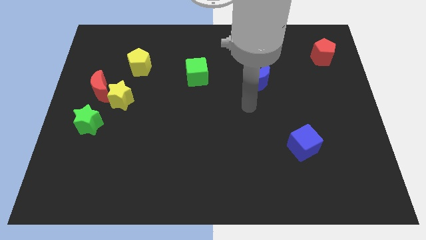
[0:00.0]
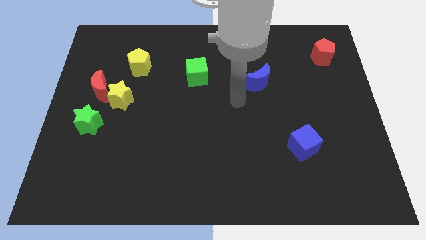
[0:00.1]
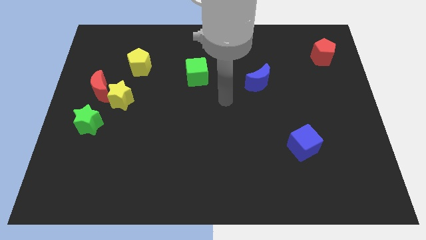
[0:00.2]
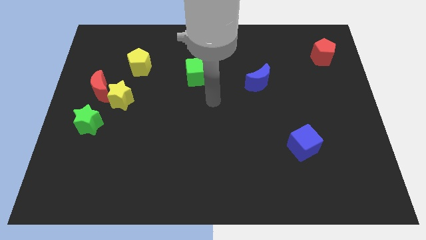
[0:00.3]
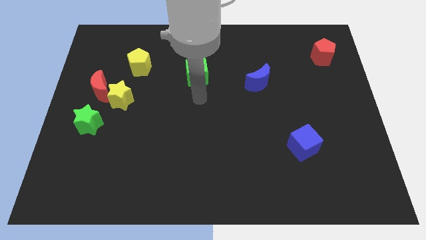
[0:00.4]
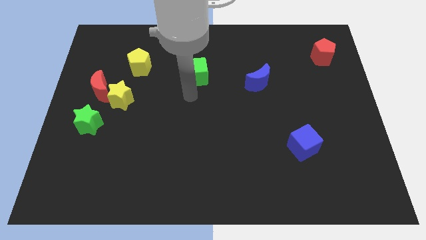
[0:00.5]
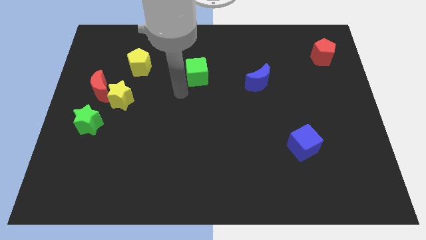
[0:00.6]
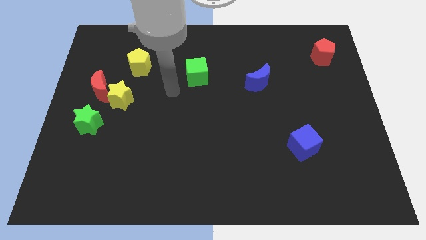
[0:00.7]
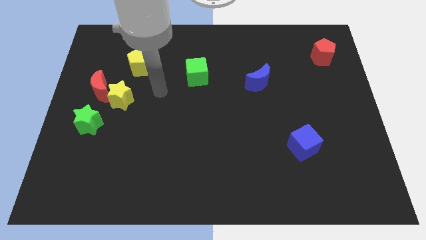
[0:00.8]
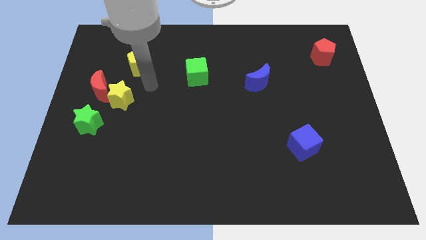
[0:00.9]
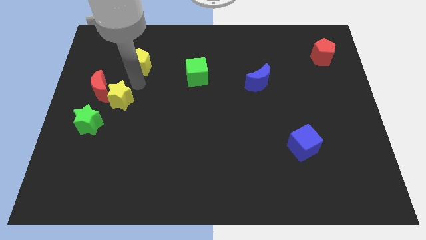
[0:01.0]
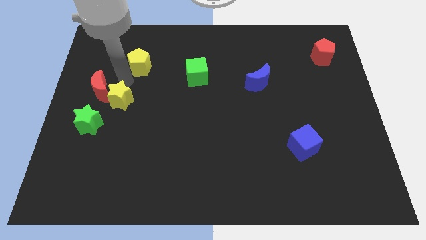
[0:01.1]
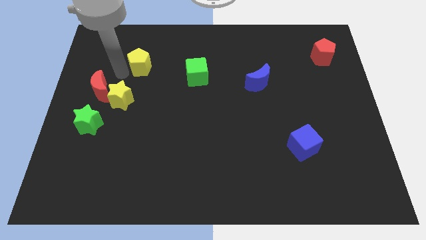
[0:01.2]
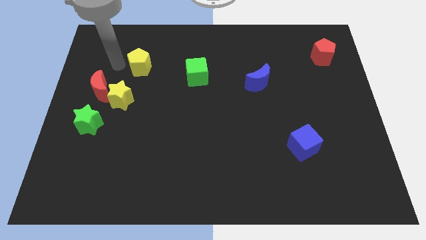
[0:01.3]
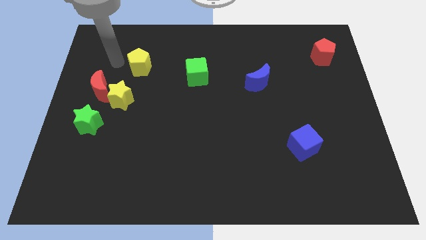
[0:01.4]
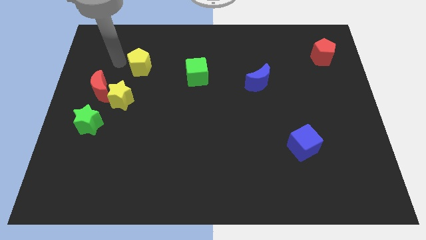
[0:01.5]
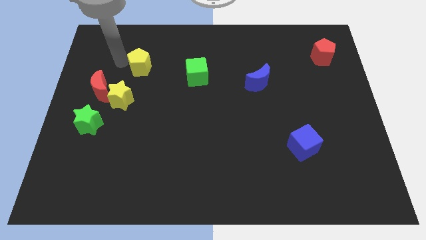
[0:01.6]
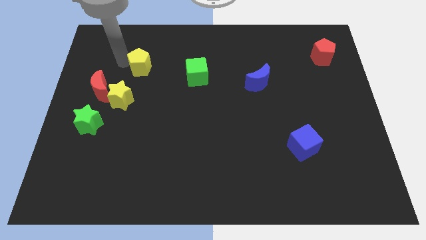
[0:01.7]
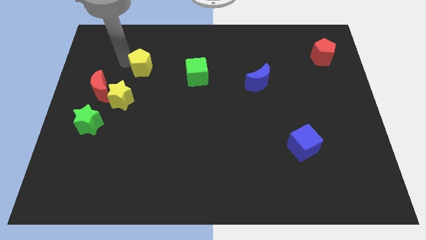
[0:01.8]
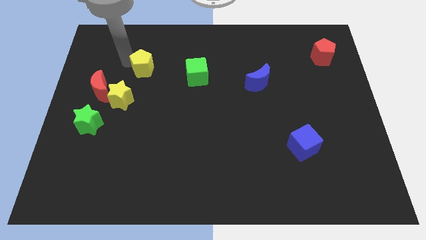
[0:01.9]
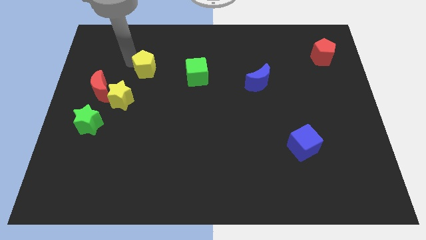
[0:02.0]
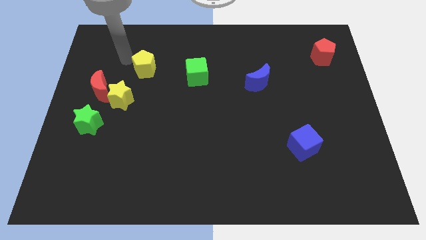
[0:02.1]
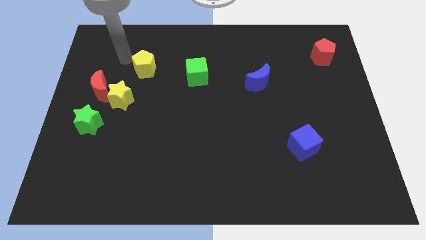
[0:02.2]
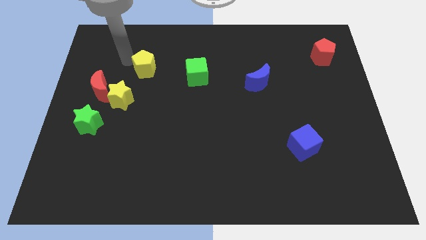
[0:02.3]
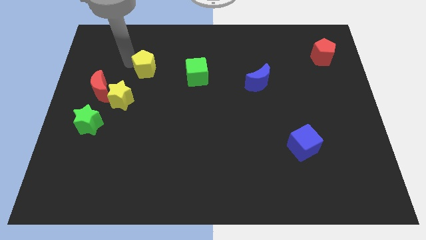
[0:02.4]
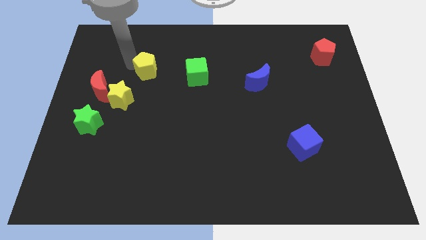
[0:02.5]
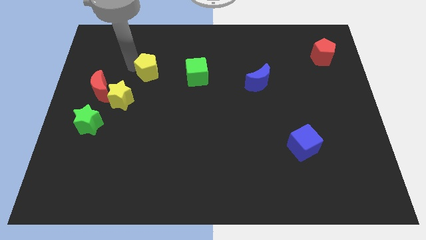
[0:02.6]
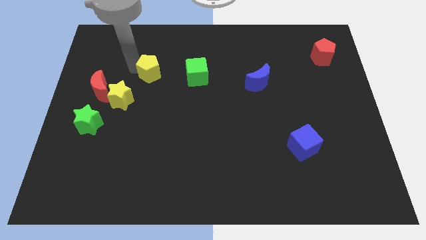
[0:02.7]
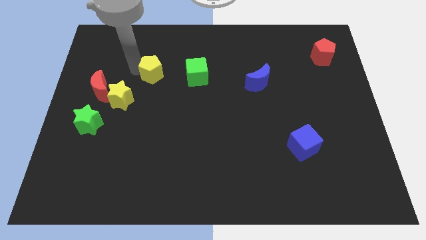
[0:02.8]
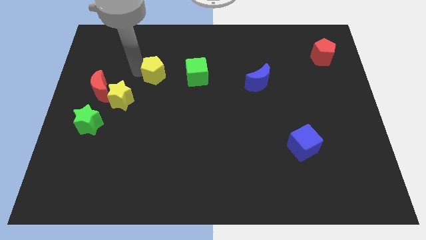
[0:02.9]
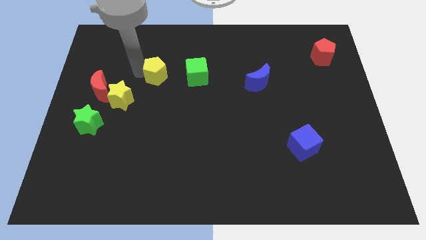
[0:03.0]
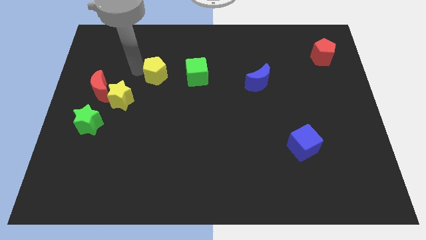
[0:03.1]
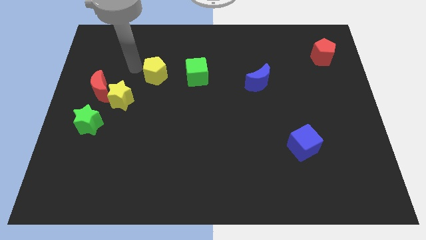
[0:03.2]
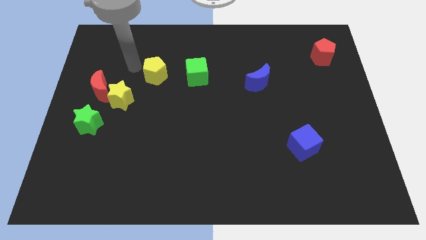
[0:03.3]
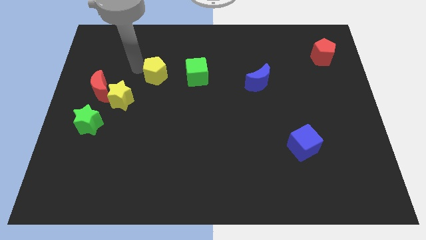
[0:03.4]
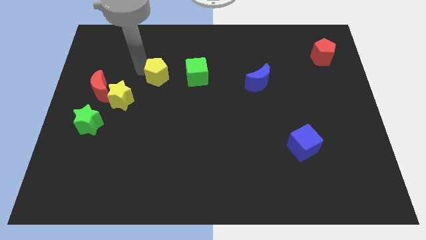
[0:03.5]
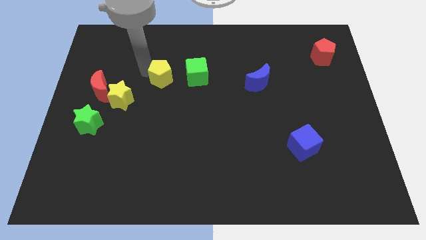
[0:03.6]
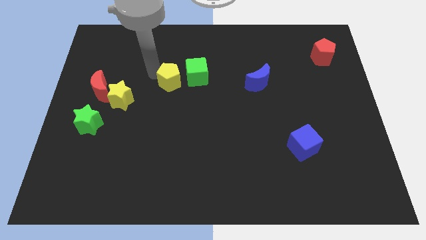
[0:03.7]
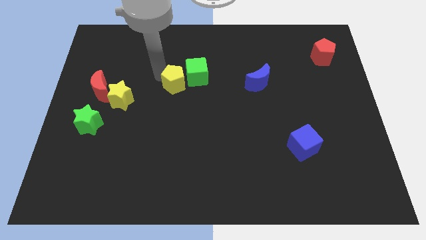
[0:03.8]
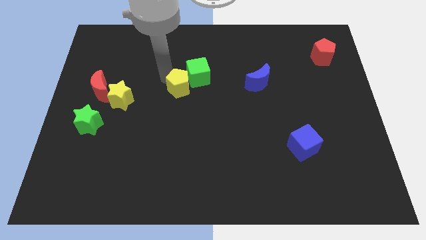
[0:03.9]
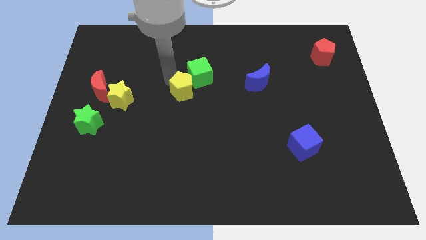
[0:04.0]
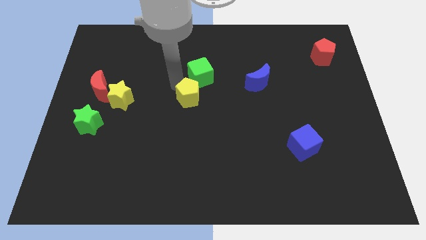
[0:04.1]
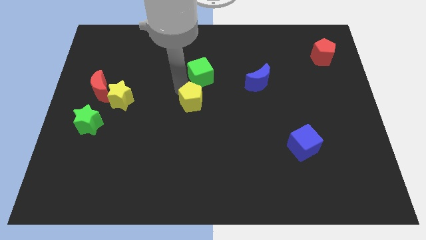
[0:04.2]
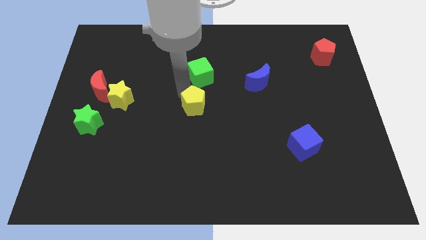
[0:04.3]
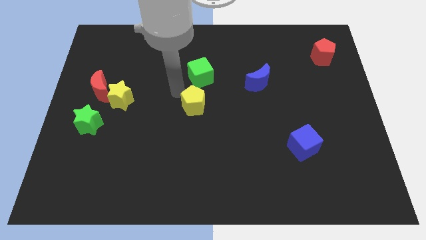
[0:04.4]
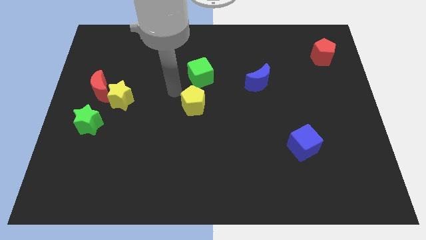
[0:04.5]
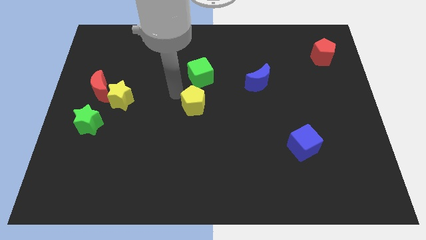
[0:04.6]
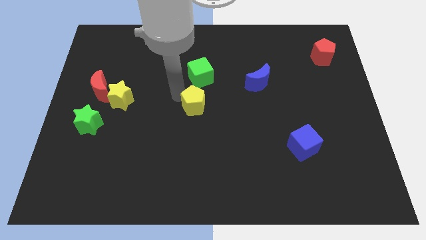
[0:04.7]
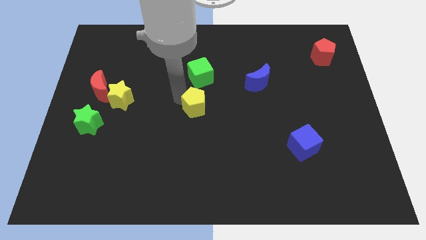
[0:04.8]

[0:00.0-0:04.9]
move the yellow pentagon downwards and to the right diagonally

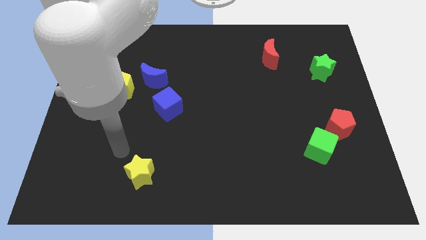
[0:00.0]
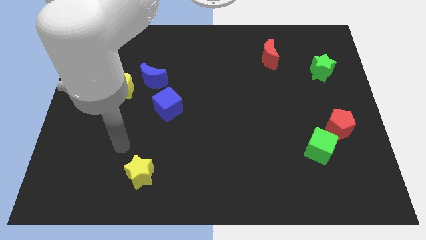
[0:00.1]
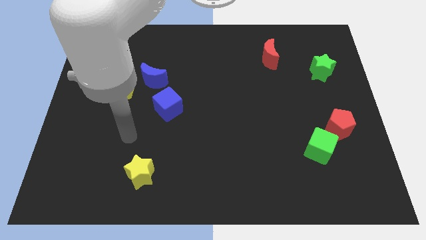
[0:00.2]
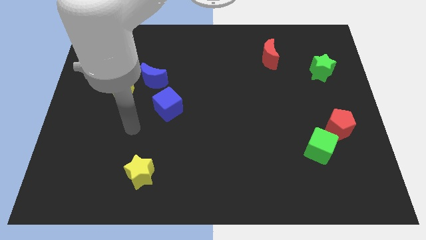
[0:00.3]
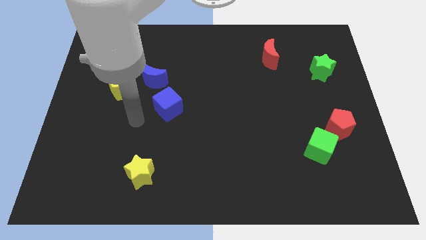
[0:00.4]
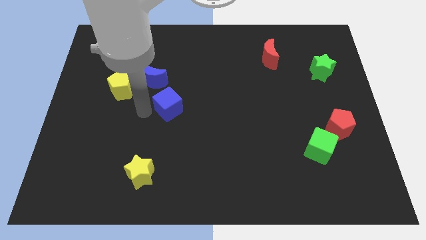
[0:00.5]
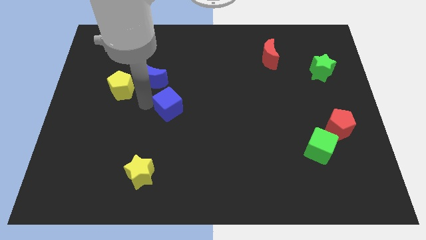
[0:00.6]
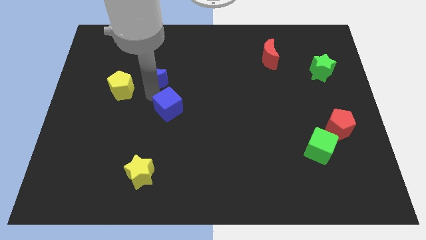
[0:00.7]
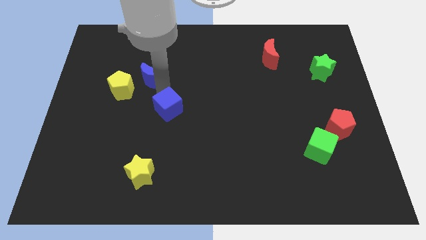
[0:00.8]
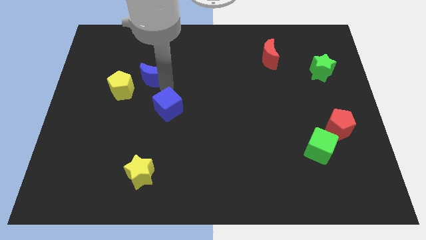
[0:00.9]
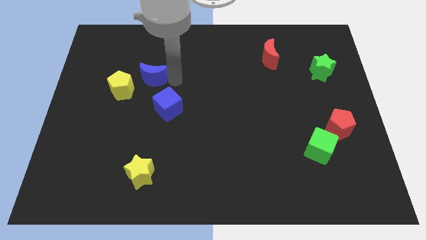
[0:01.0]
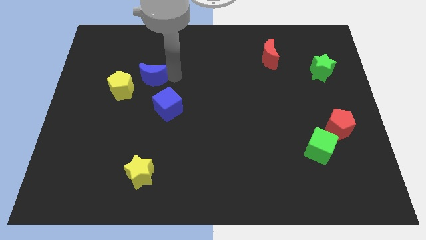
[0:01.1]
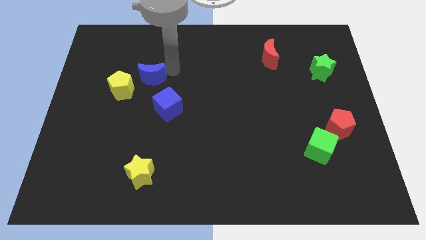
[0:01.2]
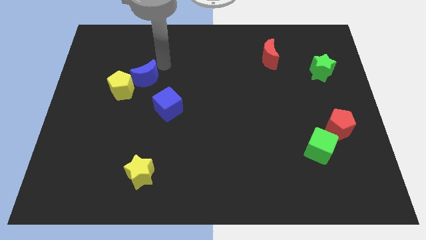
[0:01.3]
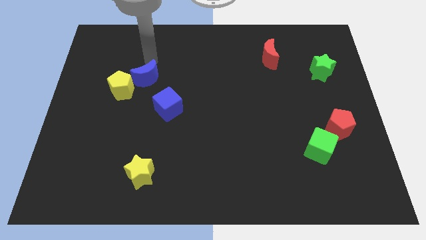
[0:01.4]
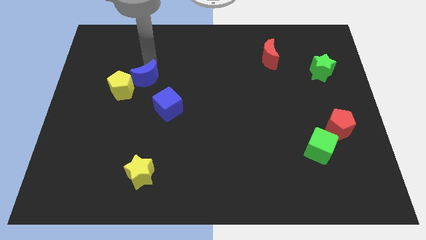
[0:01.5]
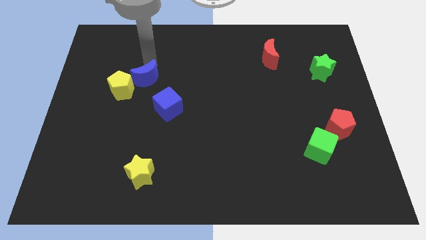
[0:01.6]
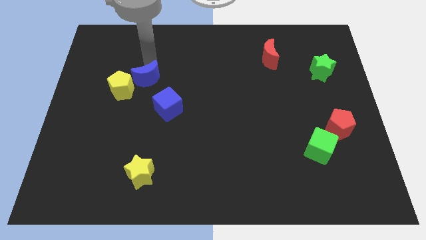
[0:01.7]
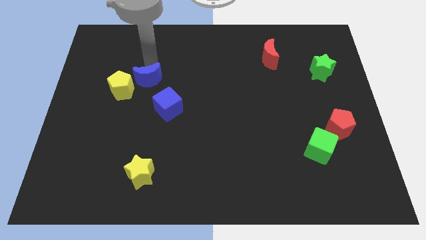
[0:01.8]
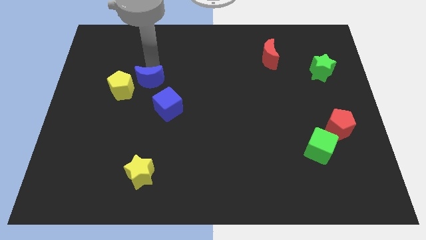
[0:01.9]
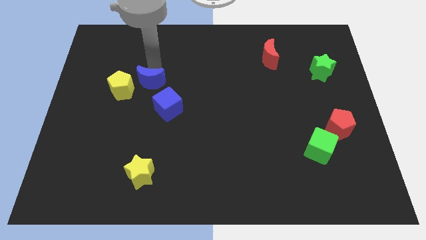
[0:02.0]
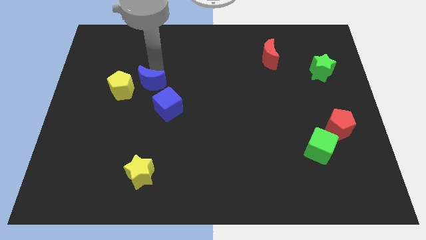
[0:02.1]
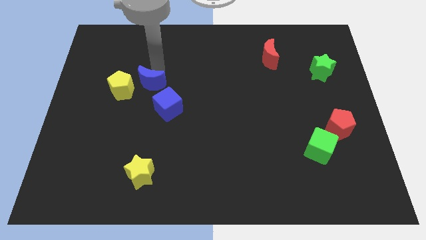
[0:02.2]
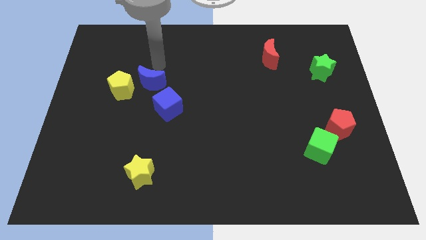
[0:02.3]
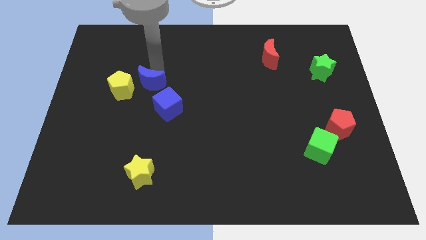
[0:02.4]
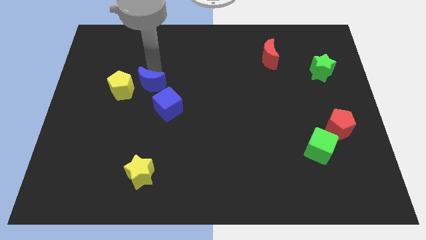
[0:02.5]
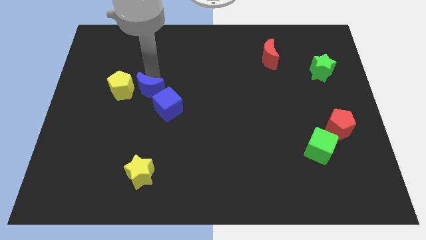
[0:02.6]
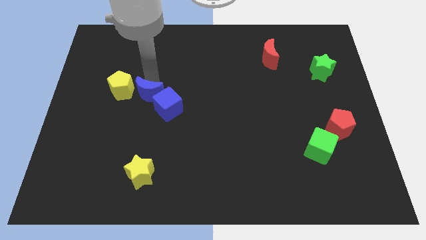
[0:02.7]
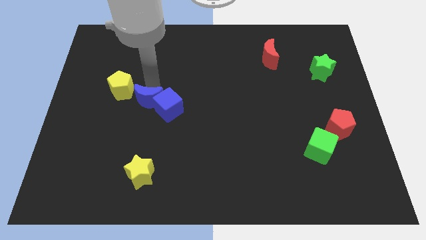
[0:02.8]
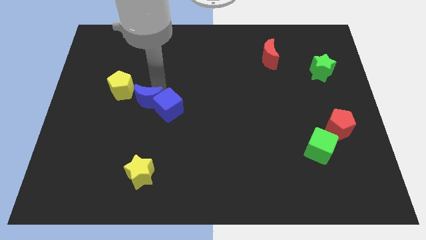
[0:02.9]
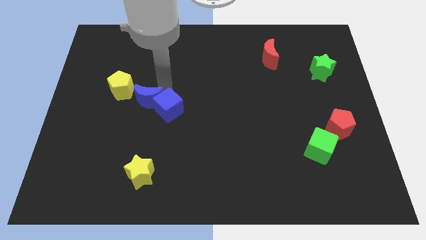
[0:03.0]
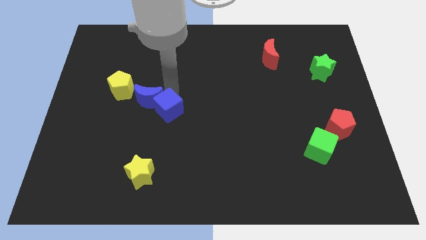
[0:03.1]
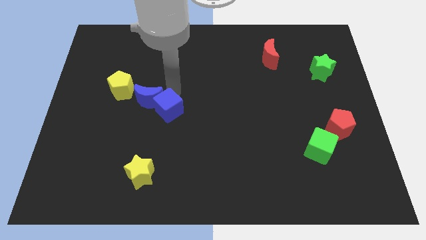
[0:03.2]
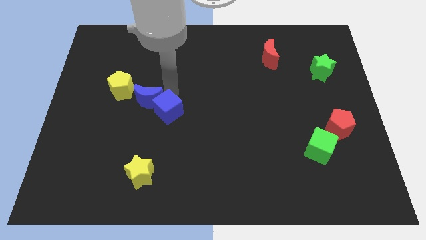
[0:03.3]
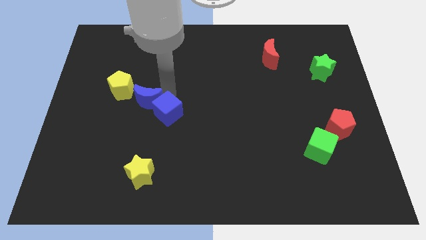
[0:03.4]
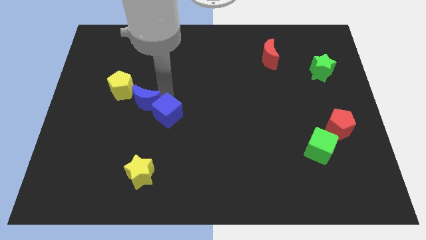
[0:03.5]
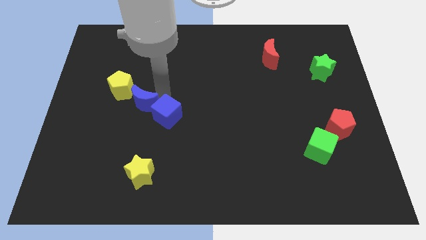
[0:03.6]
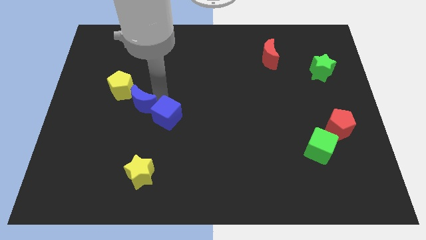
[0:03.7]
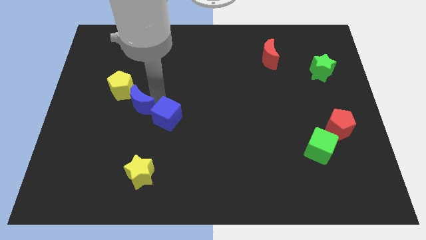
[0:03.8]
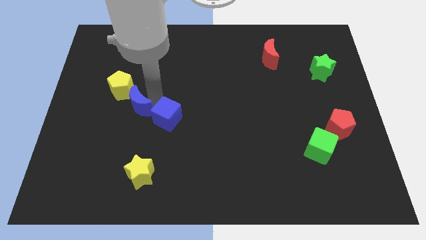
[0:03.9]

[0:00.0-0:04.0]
push the blue moon diagonally downwards and left slightly
